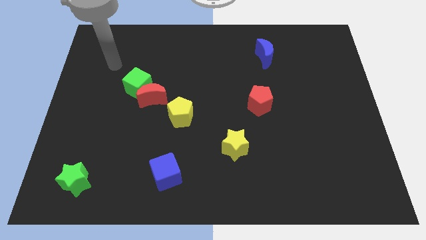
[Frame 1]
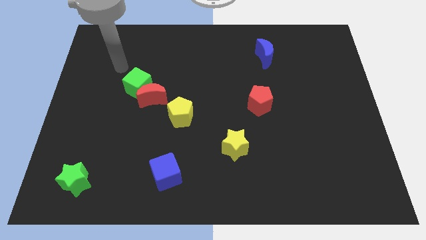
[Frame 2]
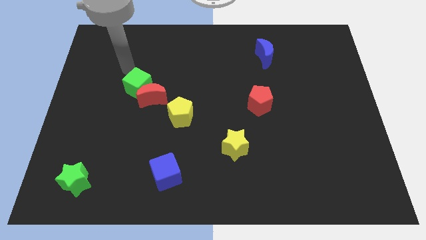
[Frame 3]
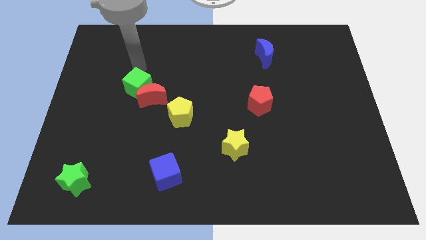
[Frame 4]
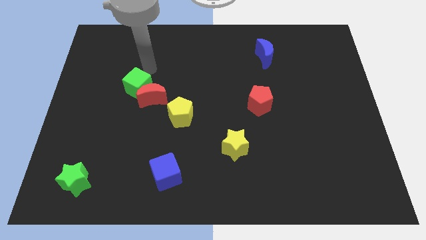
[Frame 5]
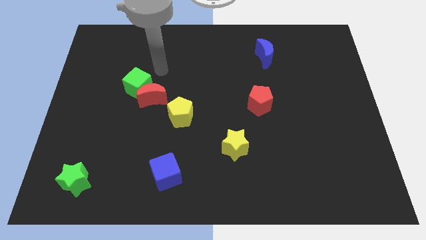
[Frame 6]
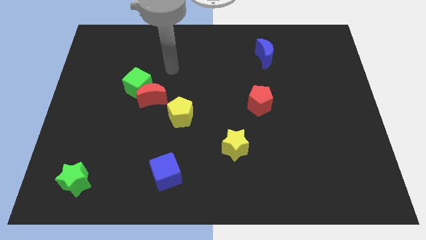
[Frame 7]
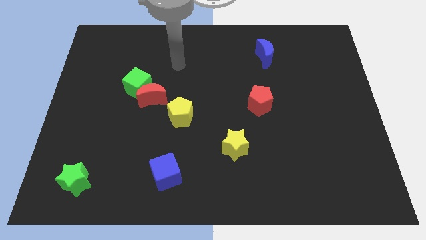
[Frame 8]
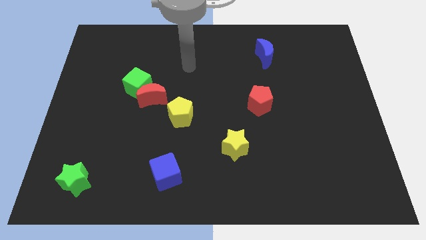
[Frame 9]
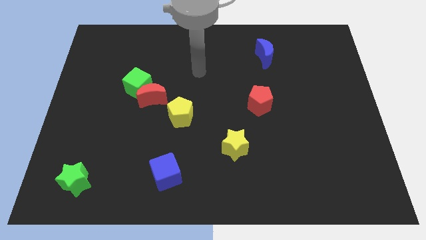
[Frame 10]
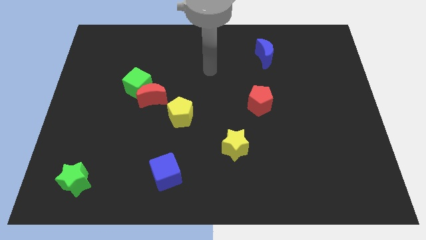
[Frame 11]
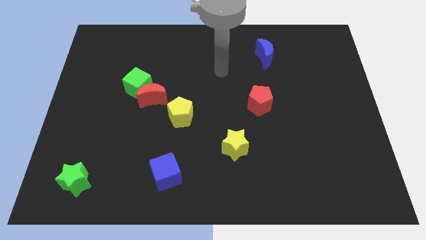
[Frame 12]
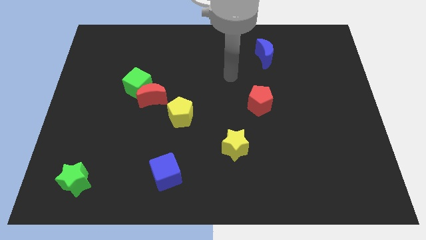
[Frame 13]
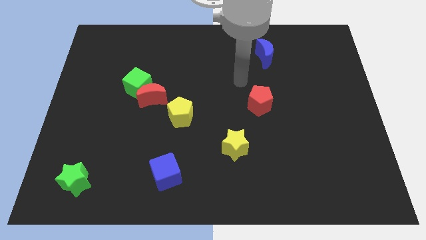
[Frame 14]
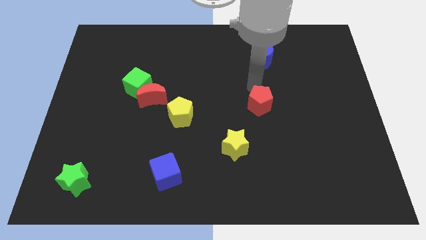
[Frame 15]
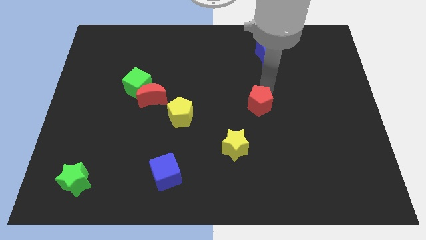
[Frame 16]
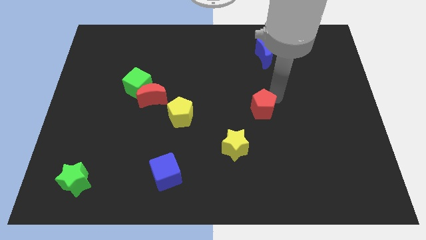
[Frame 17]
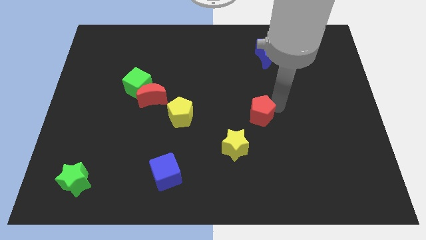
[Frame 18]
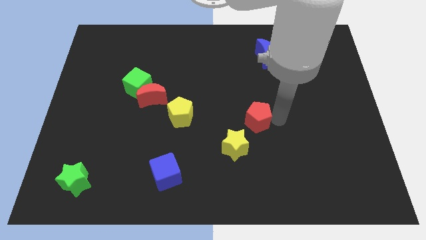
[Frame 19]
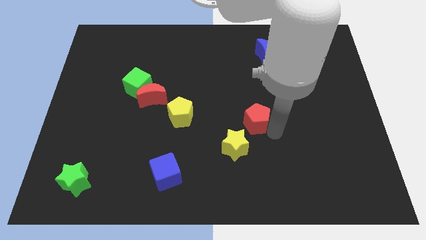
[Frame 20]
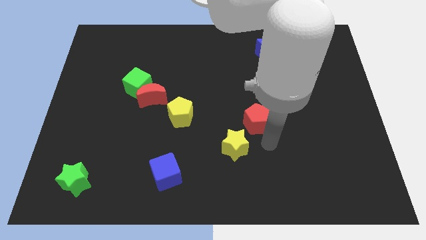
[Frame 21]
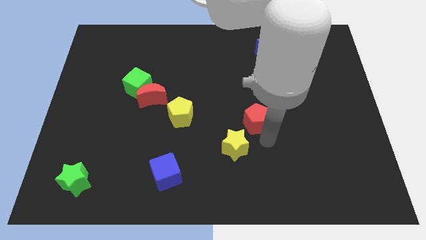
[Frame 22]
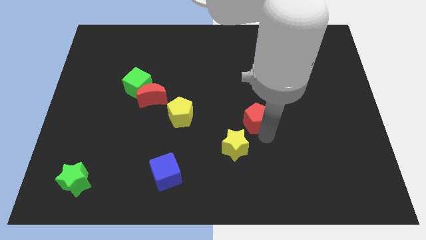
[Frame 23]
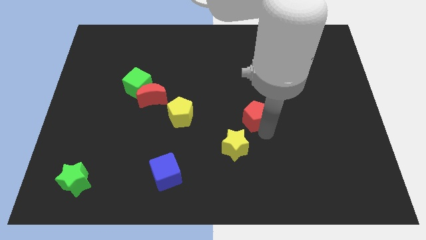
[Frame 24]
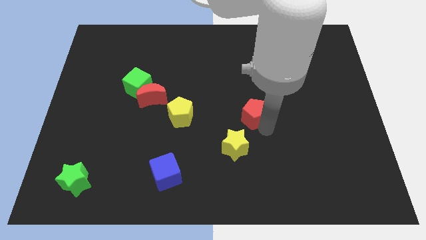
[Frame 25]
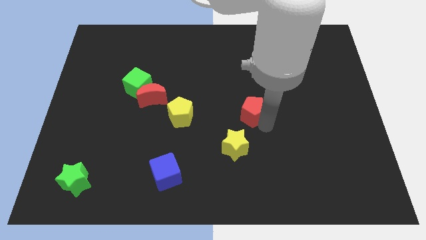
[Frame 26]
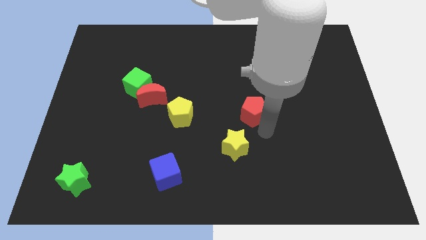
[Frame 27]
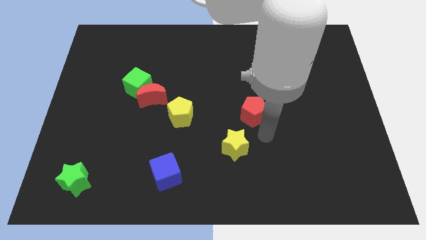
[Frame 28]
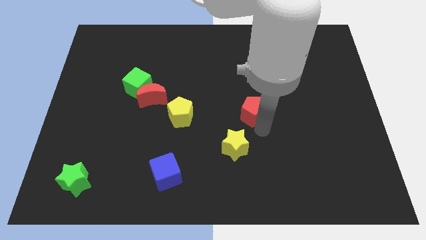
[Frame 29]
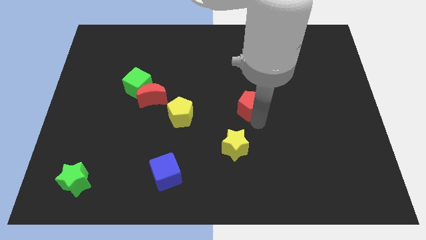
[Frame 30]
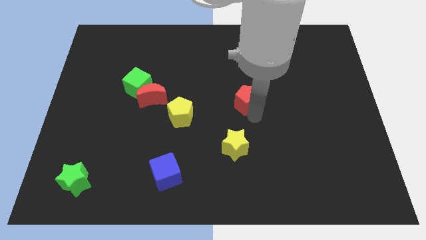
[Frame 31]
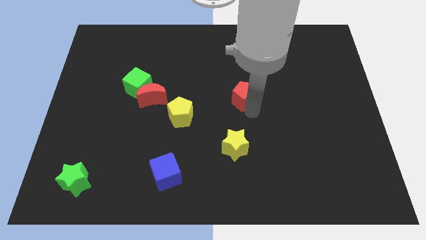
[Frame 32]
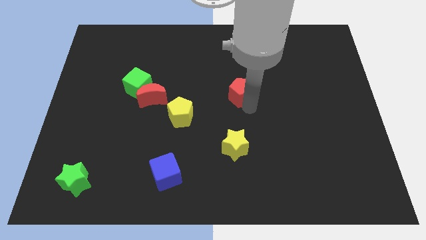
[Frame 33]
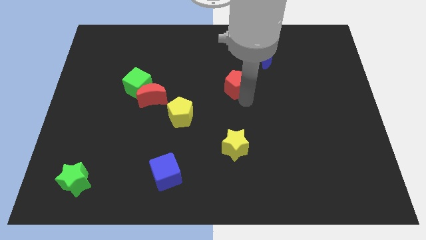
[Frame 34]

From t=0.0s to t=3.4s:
slide the red pentagon a bit diagonally upwards and left

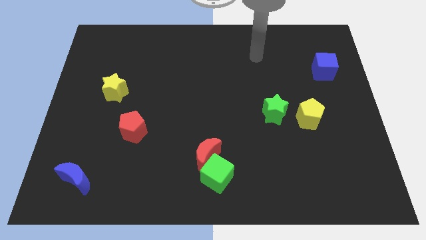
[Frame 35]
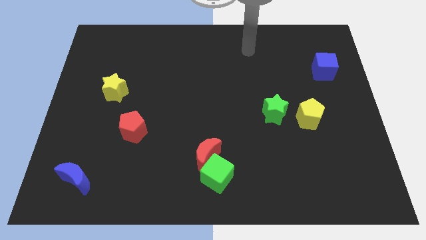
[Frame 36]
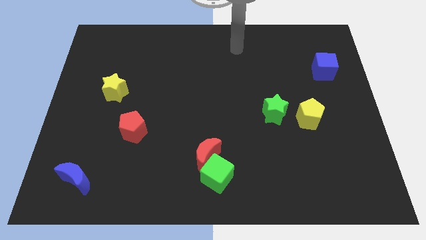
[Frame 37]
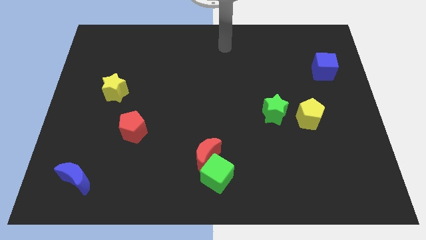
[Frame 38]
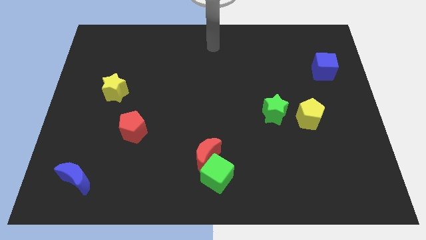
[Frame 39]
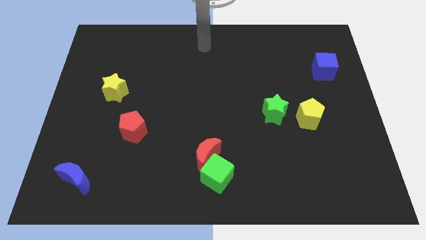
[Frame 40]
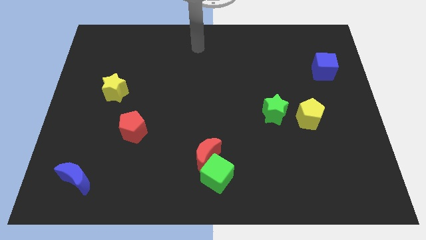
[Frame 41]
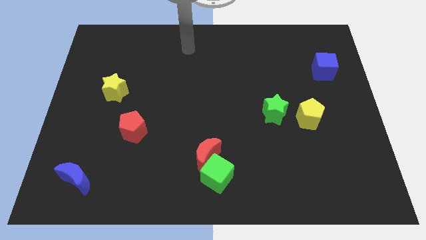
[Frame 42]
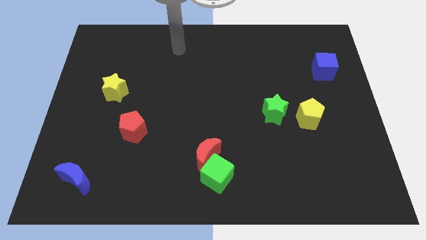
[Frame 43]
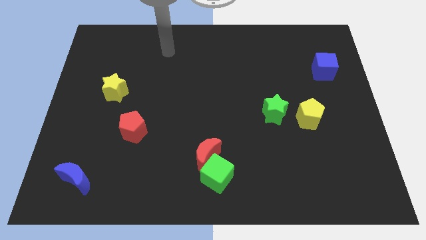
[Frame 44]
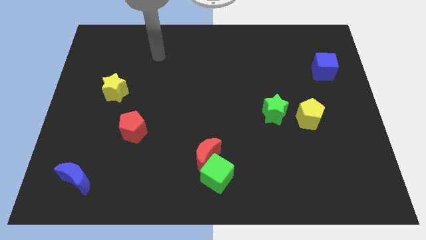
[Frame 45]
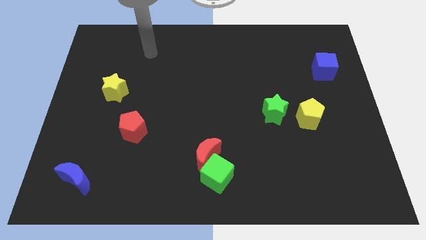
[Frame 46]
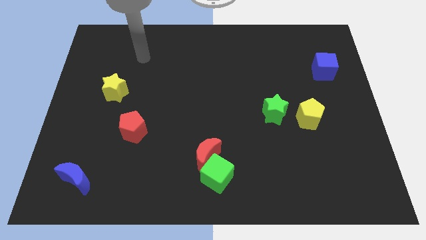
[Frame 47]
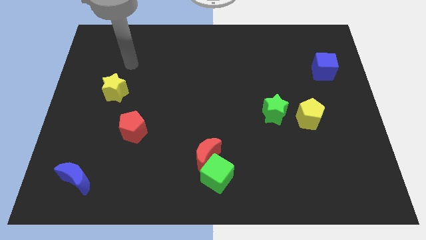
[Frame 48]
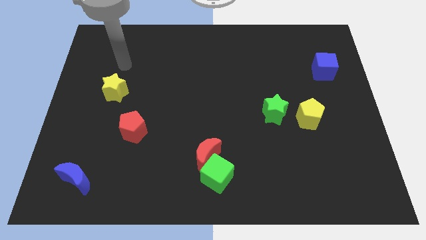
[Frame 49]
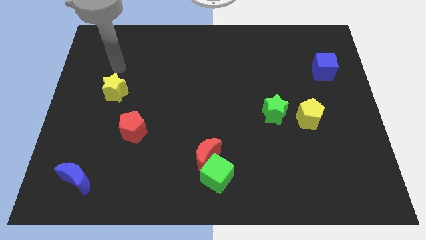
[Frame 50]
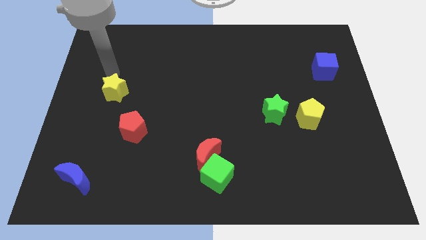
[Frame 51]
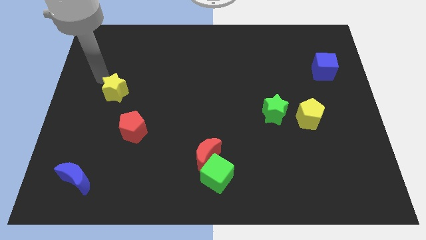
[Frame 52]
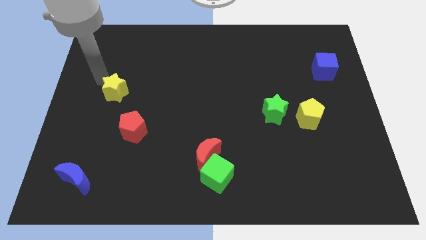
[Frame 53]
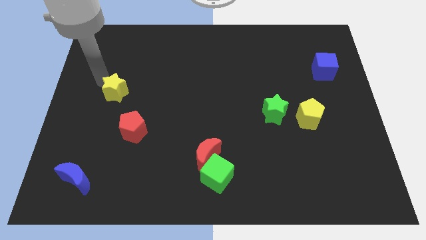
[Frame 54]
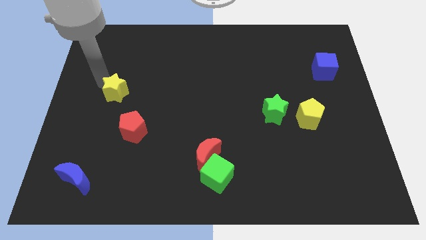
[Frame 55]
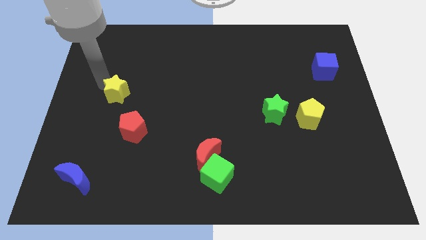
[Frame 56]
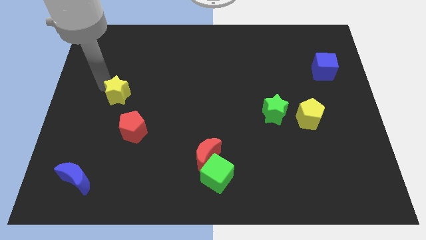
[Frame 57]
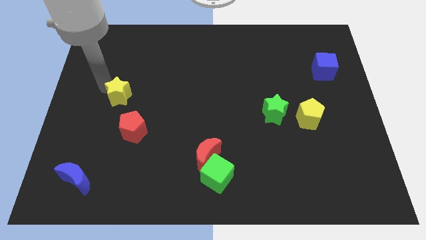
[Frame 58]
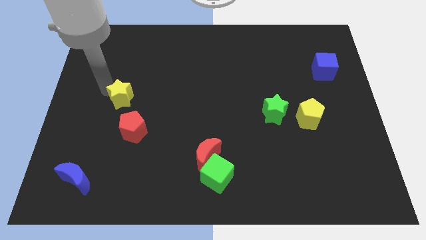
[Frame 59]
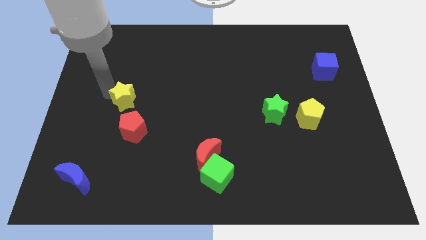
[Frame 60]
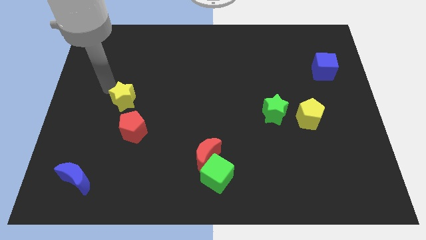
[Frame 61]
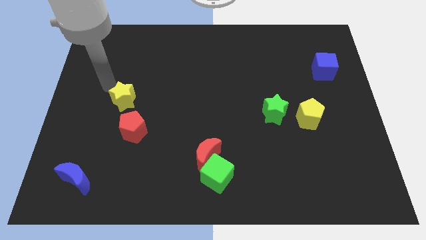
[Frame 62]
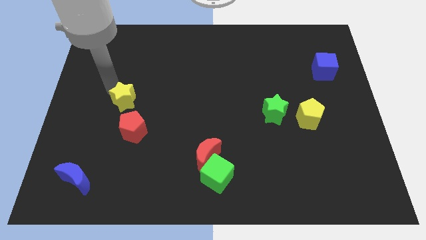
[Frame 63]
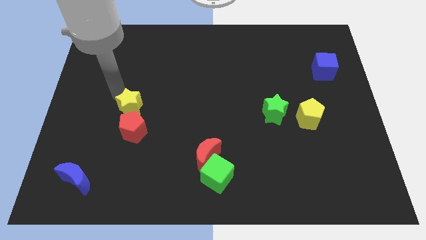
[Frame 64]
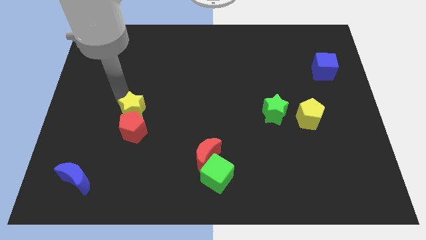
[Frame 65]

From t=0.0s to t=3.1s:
push the yellow star a little down and to the right

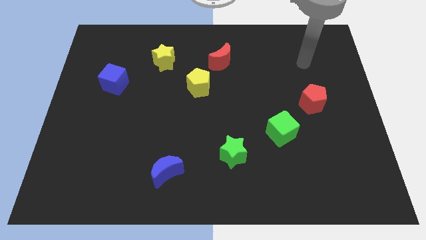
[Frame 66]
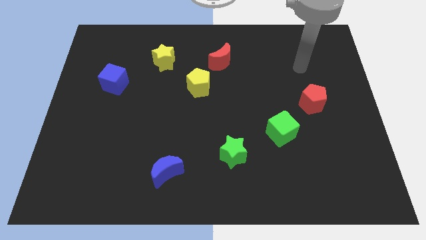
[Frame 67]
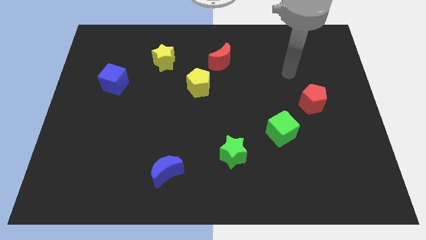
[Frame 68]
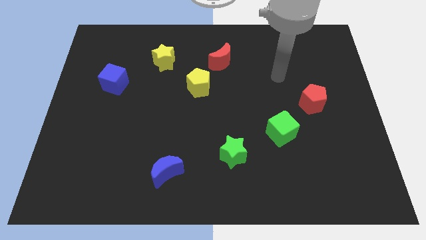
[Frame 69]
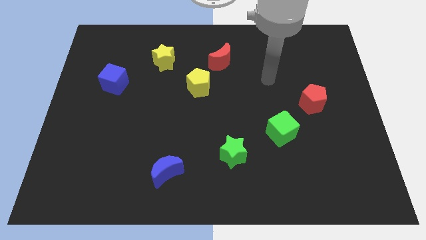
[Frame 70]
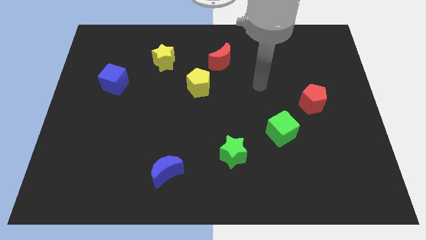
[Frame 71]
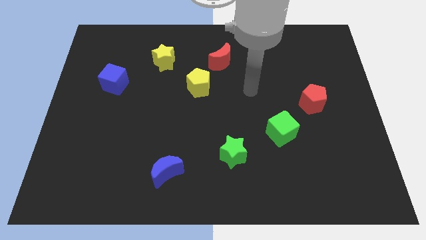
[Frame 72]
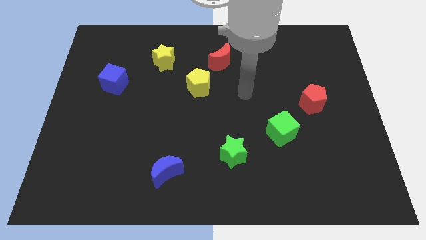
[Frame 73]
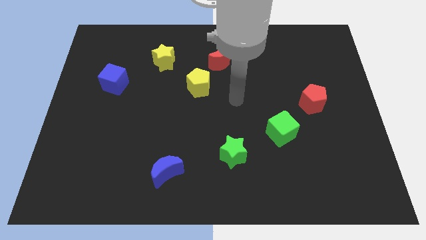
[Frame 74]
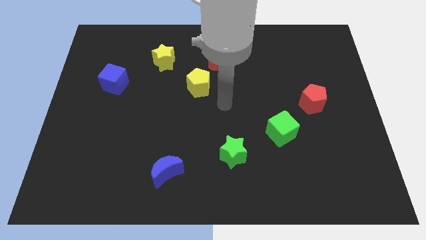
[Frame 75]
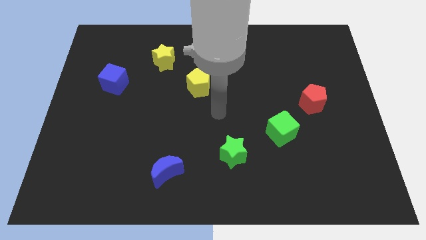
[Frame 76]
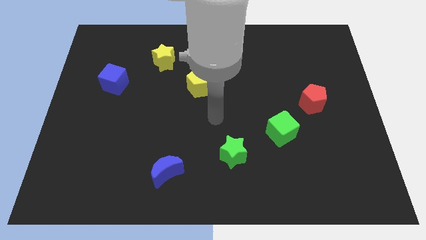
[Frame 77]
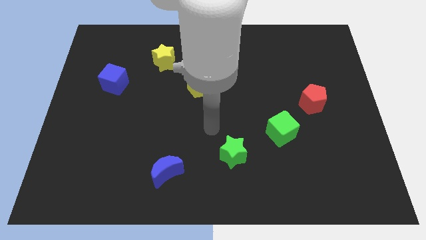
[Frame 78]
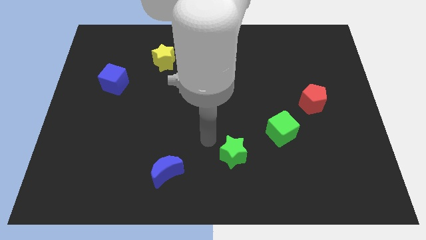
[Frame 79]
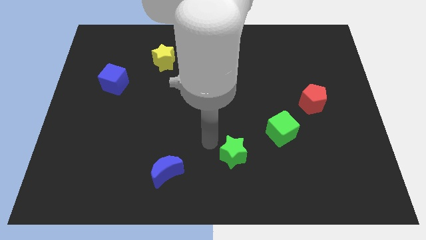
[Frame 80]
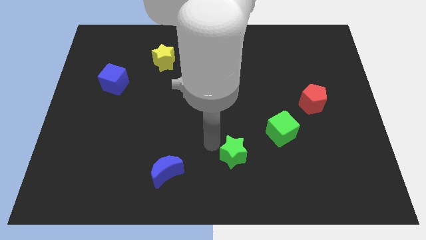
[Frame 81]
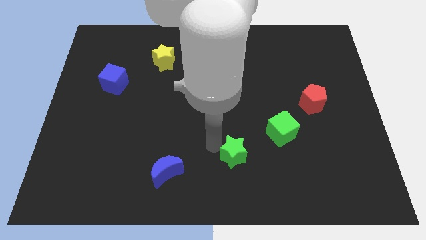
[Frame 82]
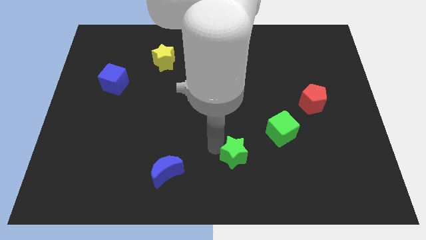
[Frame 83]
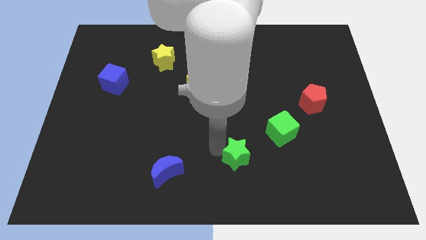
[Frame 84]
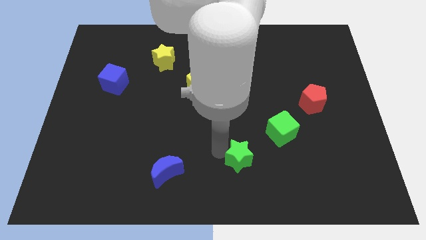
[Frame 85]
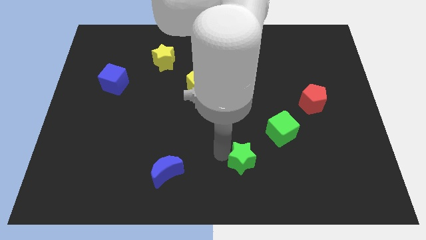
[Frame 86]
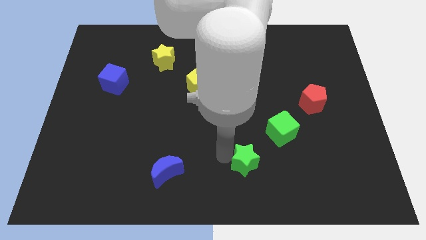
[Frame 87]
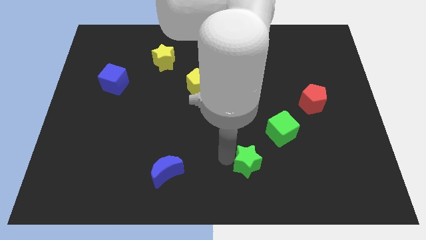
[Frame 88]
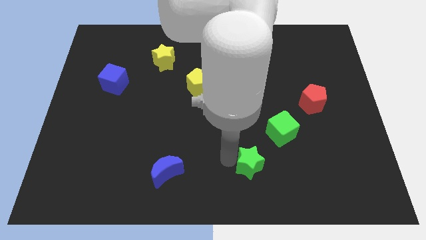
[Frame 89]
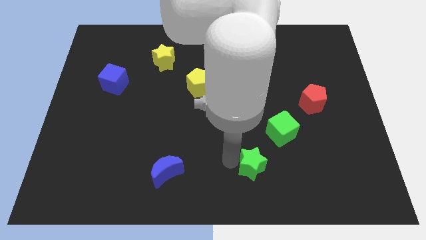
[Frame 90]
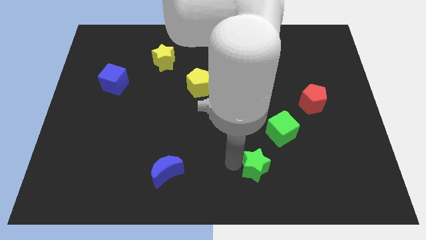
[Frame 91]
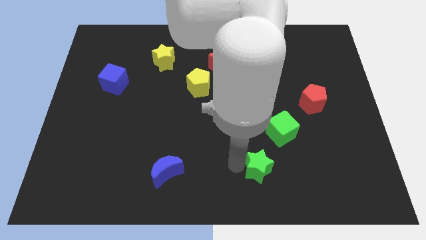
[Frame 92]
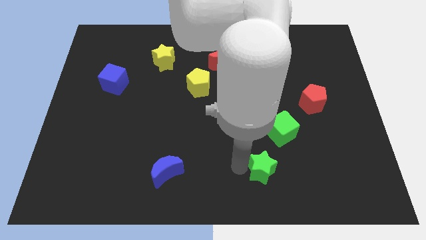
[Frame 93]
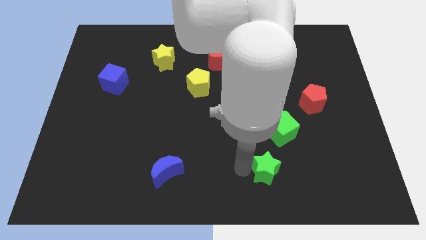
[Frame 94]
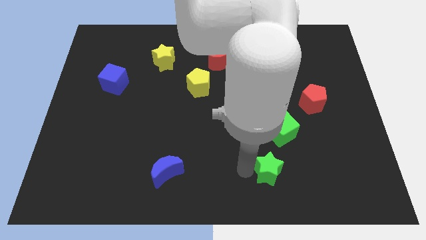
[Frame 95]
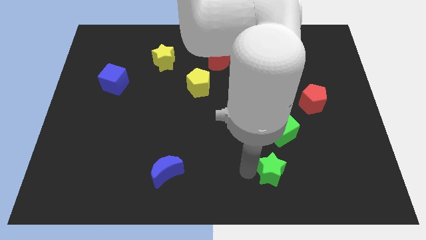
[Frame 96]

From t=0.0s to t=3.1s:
push the green star slightly to the right
